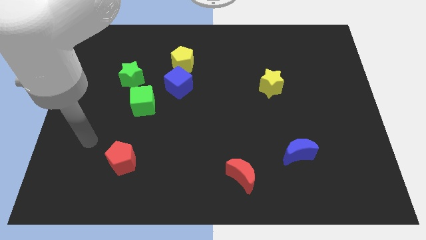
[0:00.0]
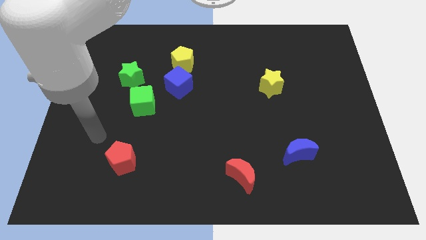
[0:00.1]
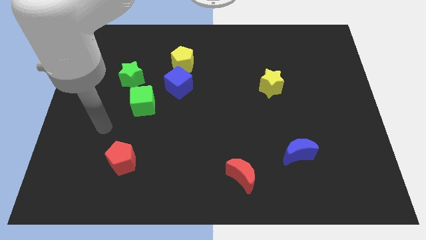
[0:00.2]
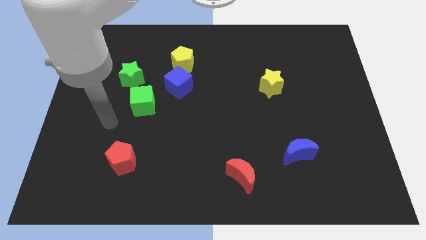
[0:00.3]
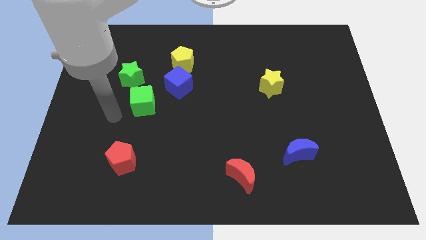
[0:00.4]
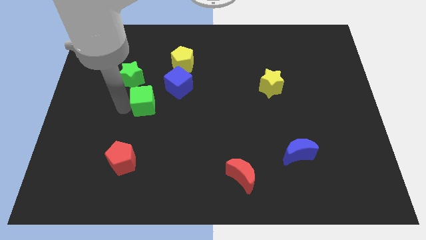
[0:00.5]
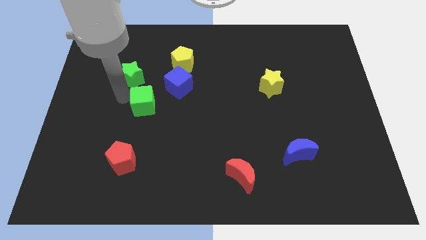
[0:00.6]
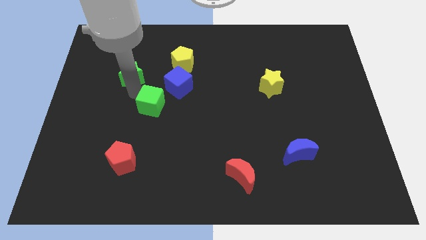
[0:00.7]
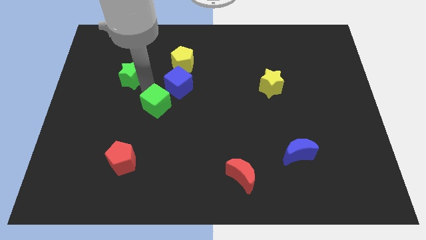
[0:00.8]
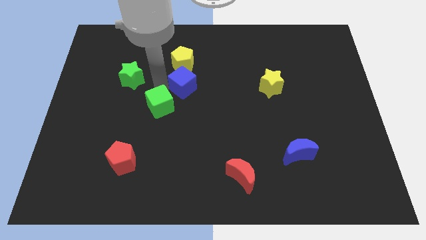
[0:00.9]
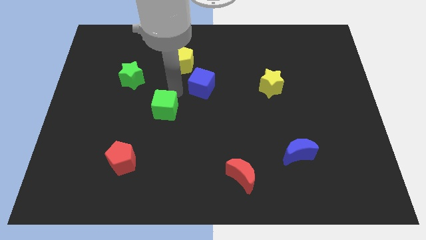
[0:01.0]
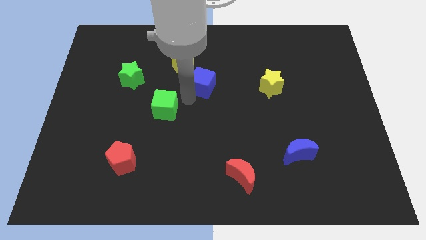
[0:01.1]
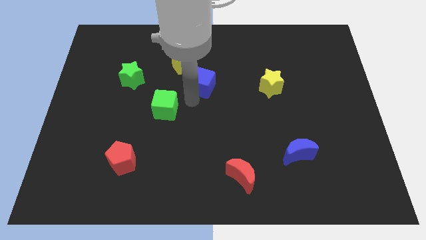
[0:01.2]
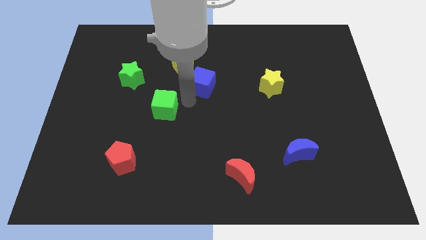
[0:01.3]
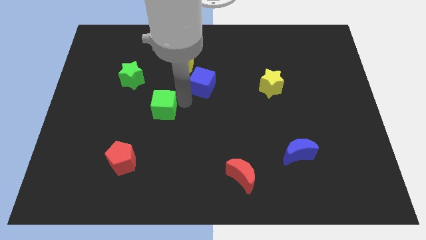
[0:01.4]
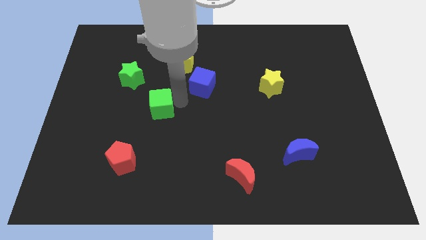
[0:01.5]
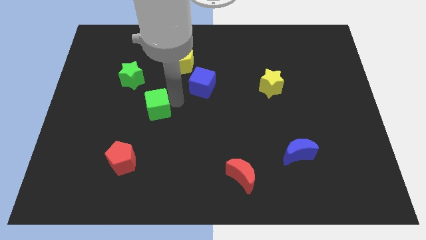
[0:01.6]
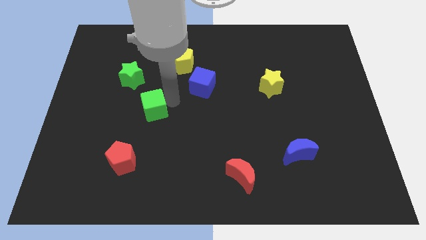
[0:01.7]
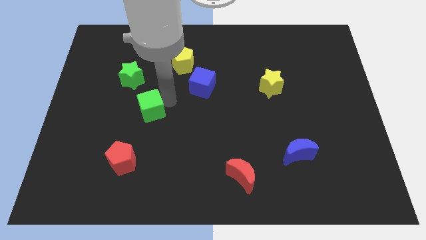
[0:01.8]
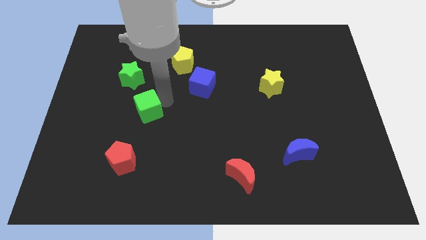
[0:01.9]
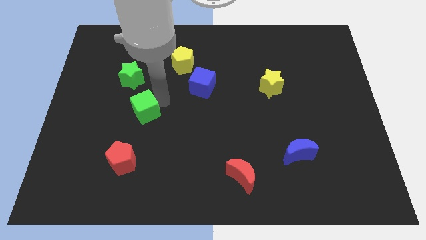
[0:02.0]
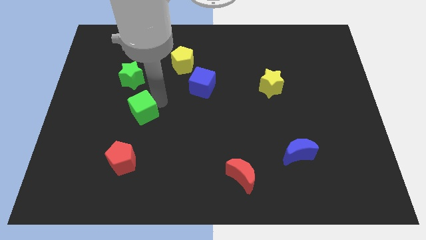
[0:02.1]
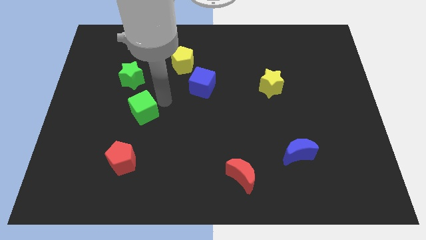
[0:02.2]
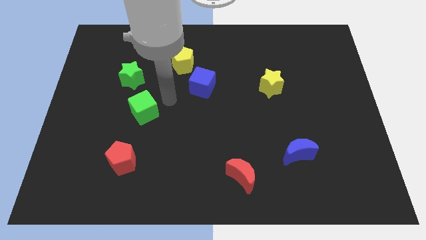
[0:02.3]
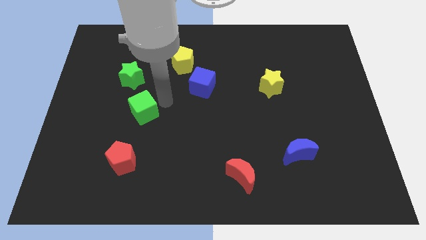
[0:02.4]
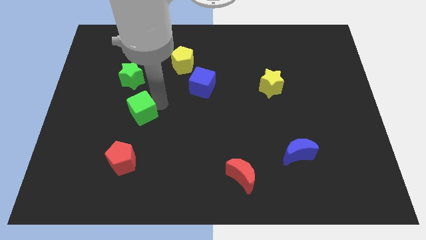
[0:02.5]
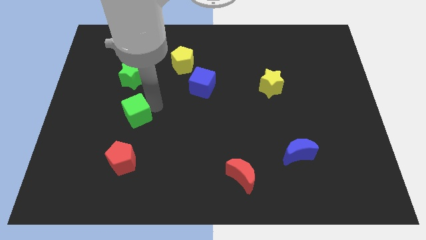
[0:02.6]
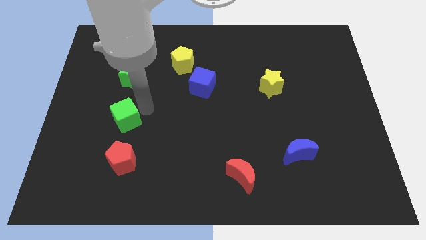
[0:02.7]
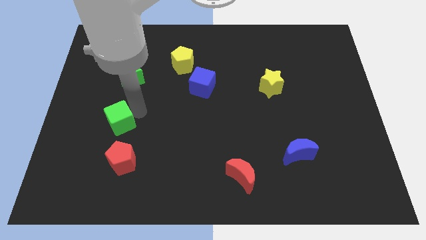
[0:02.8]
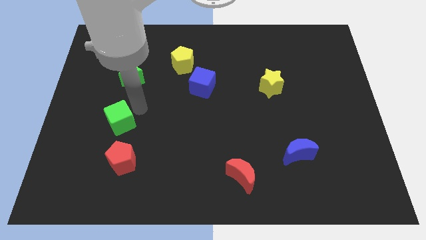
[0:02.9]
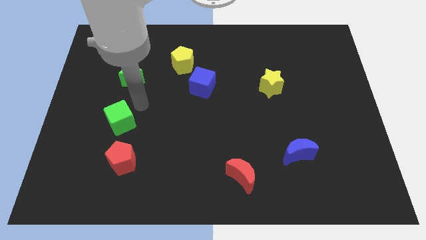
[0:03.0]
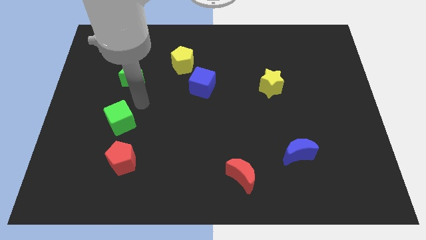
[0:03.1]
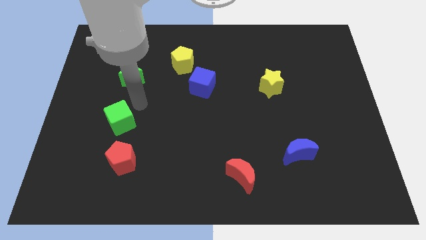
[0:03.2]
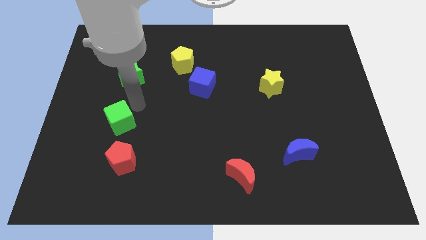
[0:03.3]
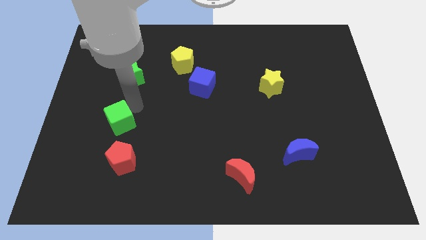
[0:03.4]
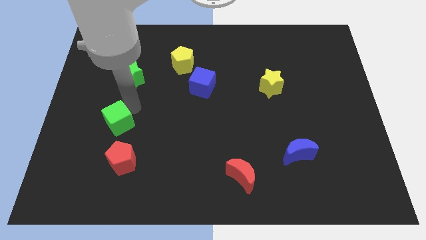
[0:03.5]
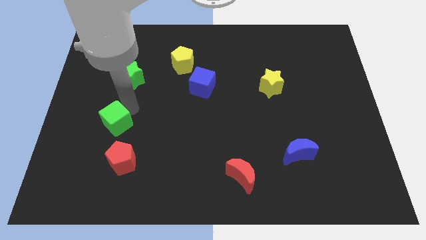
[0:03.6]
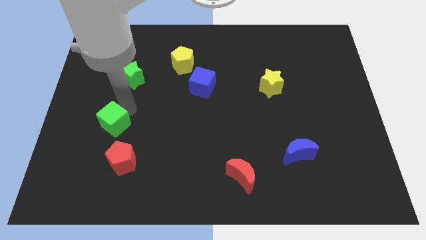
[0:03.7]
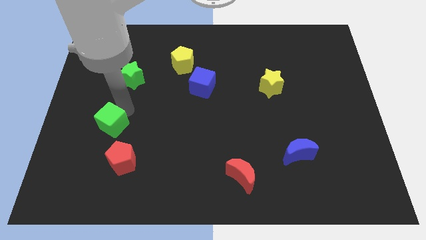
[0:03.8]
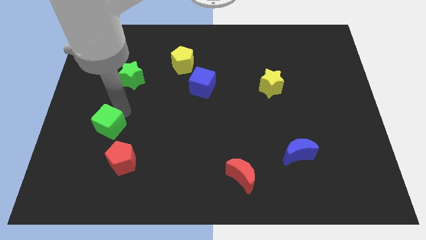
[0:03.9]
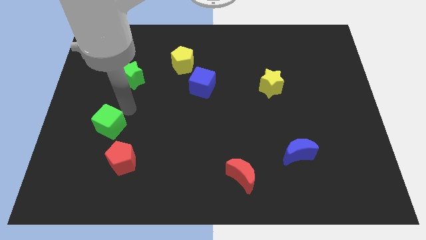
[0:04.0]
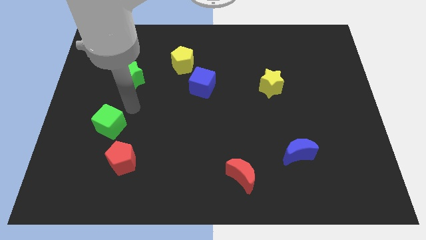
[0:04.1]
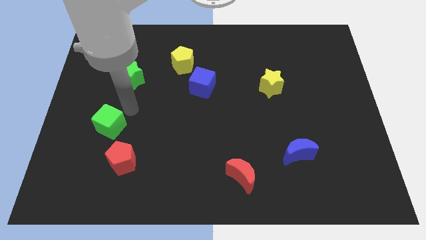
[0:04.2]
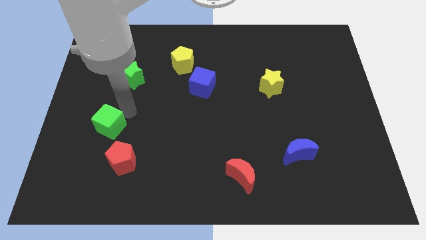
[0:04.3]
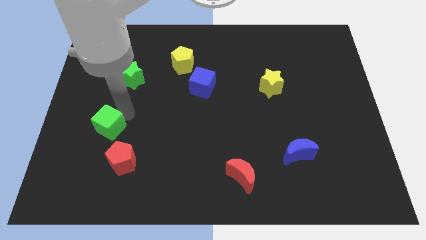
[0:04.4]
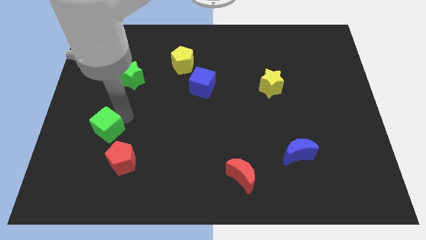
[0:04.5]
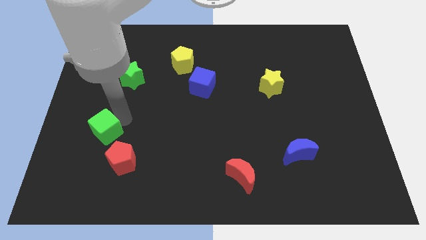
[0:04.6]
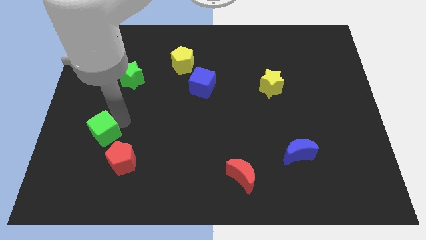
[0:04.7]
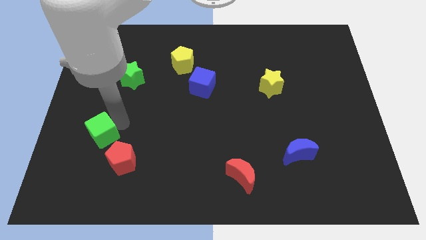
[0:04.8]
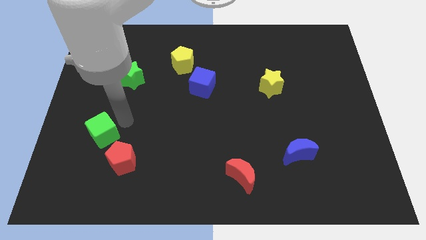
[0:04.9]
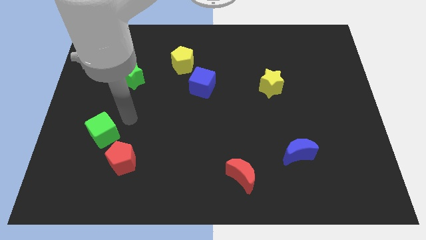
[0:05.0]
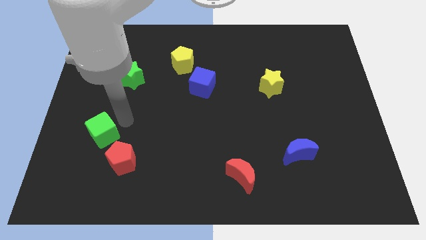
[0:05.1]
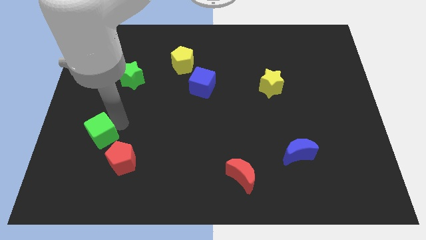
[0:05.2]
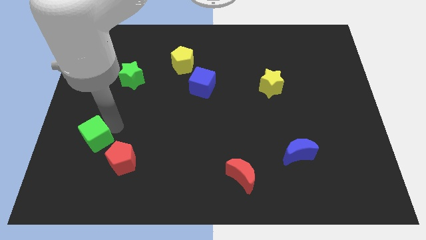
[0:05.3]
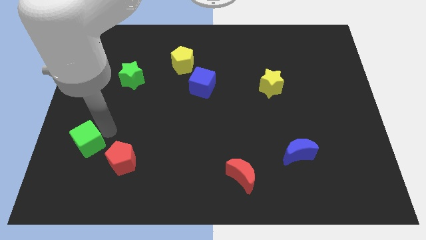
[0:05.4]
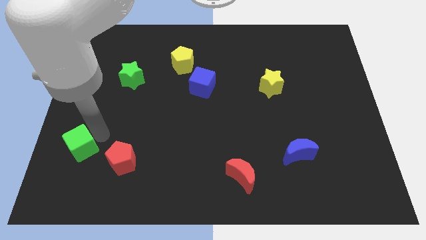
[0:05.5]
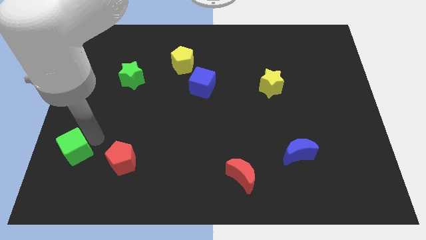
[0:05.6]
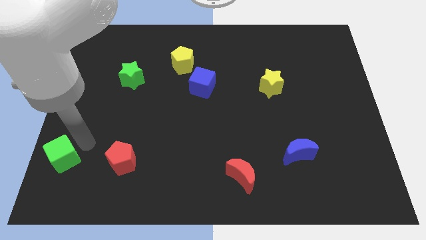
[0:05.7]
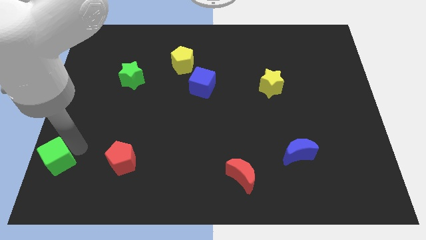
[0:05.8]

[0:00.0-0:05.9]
push the green cube to the lower left corner
